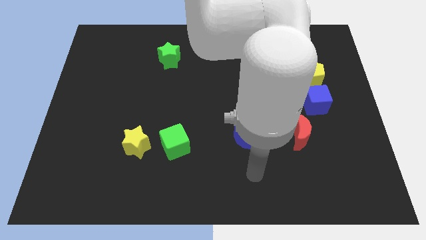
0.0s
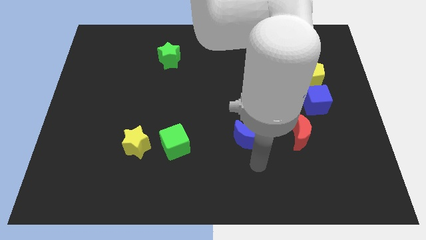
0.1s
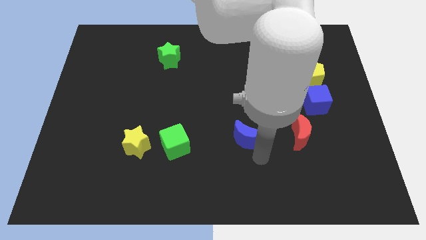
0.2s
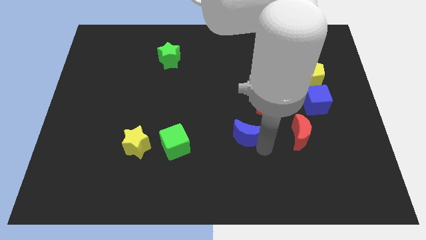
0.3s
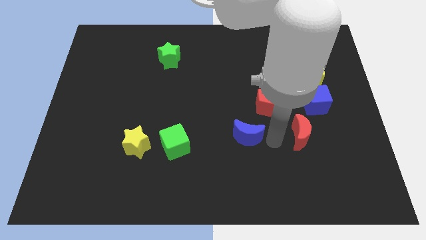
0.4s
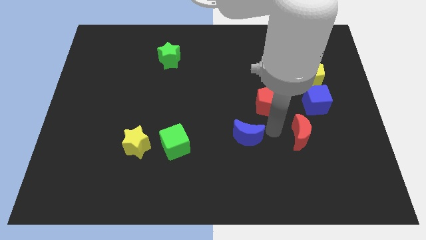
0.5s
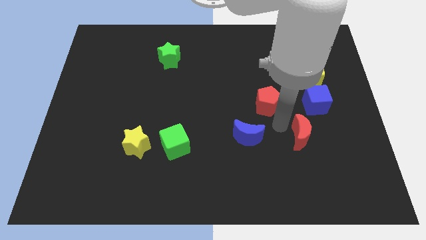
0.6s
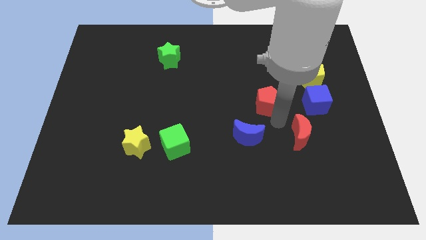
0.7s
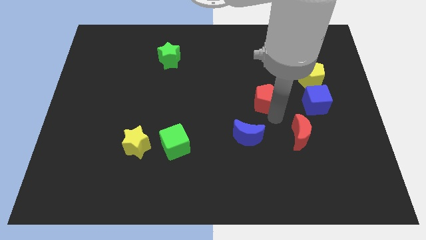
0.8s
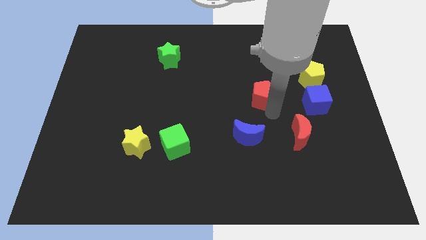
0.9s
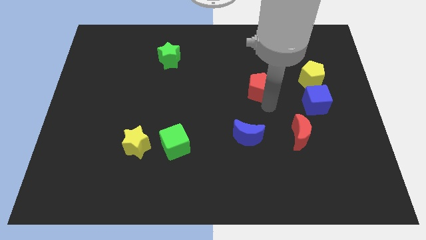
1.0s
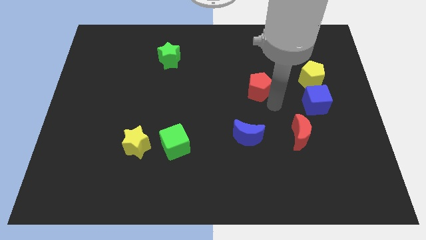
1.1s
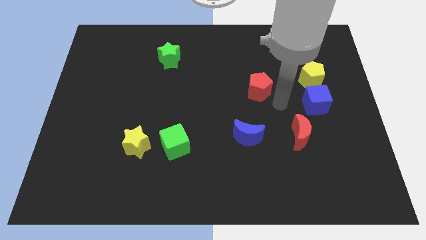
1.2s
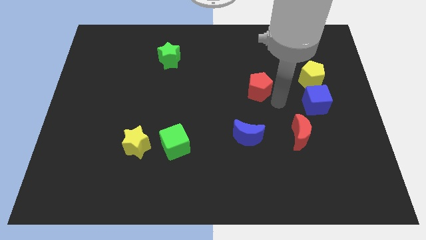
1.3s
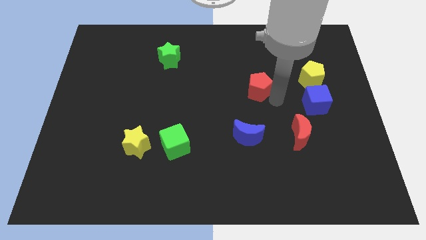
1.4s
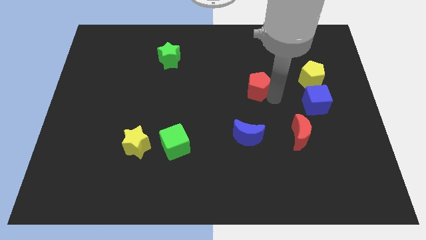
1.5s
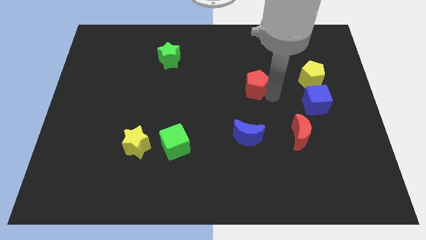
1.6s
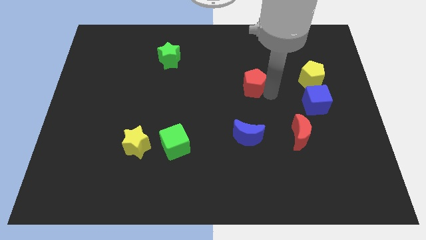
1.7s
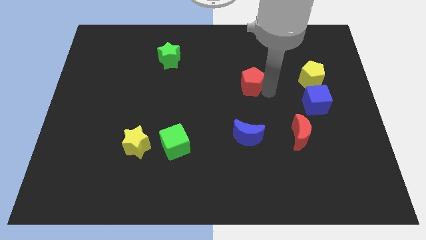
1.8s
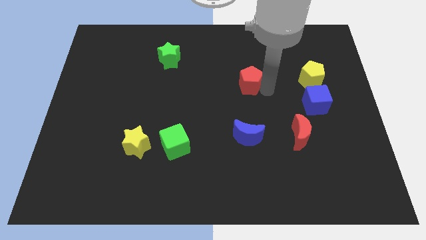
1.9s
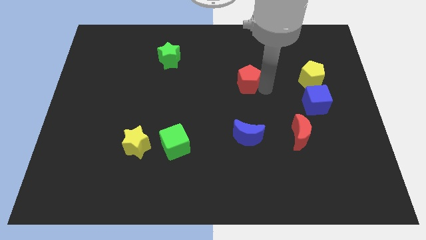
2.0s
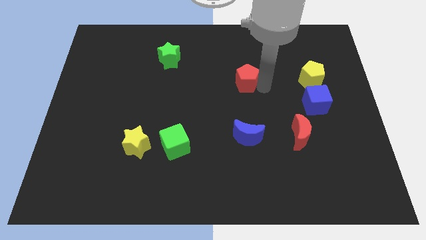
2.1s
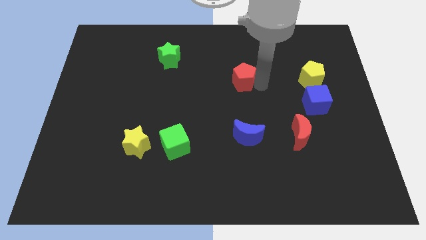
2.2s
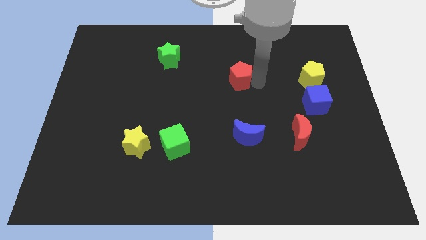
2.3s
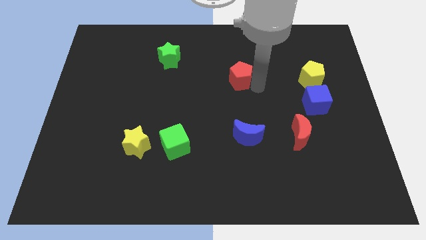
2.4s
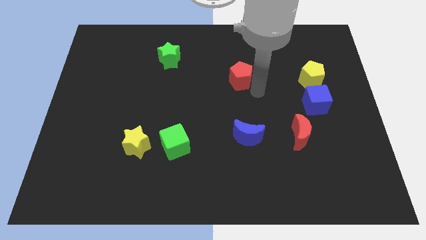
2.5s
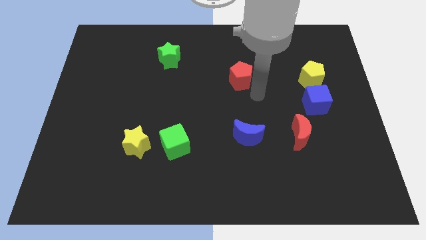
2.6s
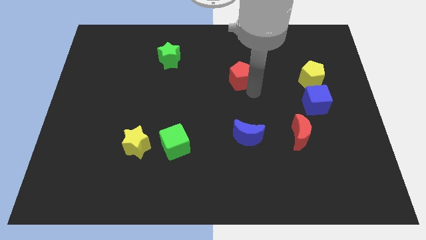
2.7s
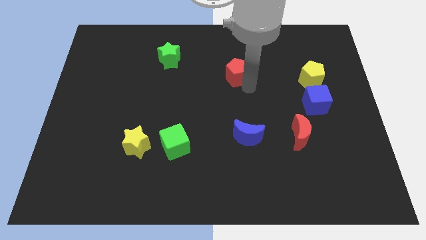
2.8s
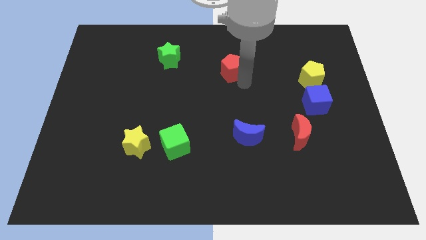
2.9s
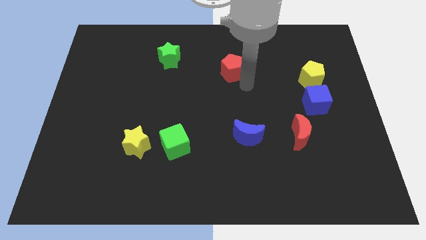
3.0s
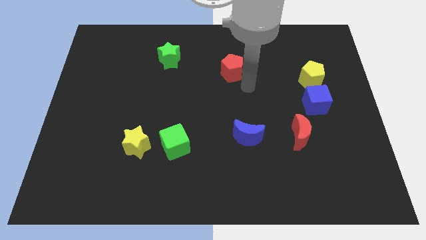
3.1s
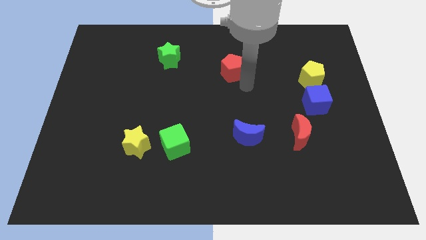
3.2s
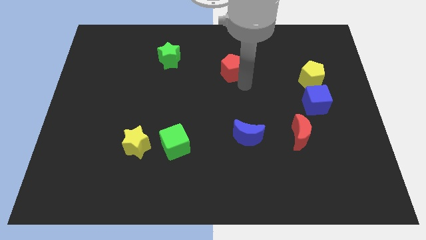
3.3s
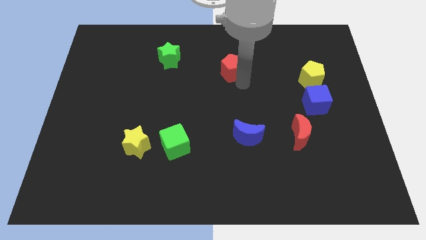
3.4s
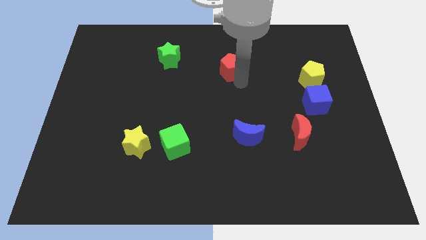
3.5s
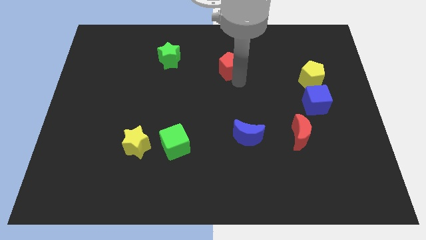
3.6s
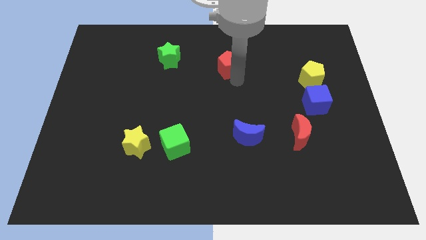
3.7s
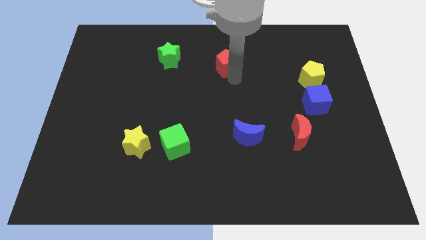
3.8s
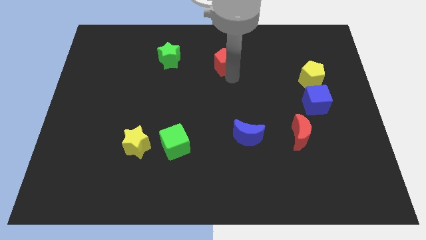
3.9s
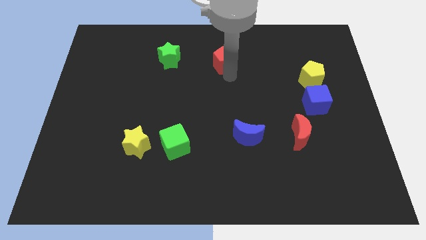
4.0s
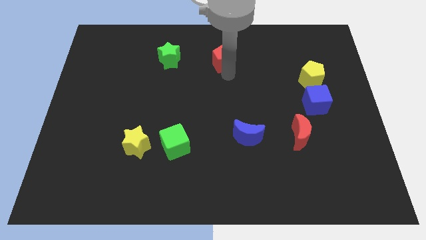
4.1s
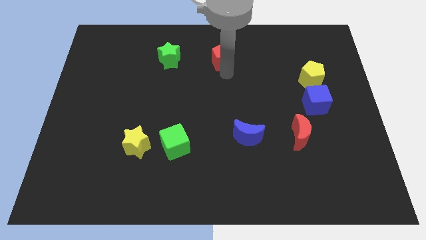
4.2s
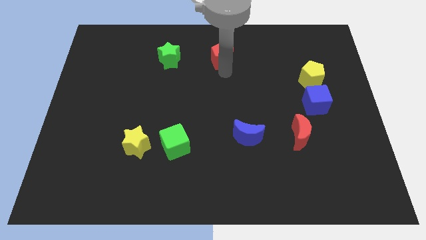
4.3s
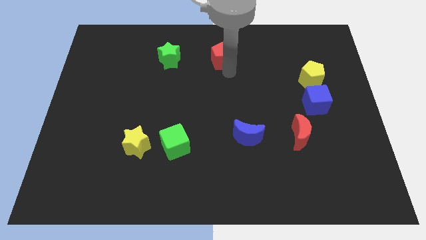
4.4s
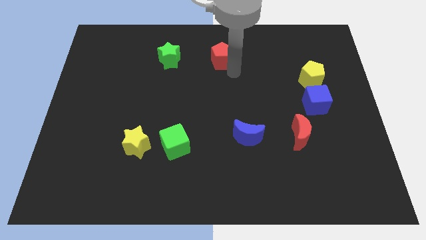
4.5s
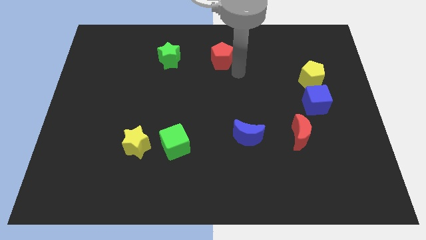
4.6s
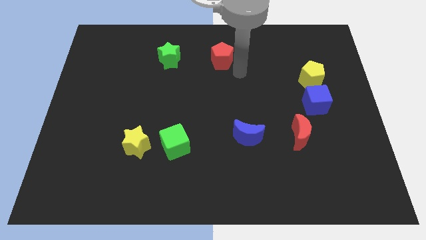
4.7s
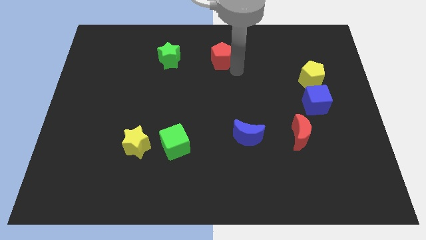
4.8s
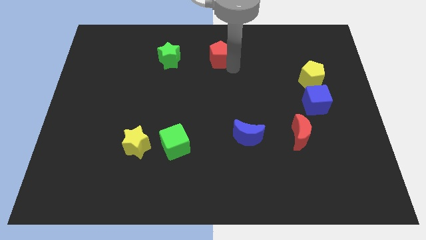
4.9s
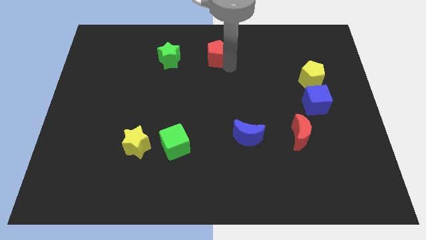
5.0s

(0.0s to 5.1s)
push the red pentagon to the top side

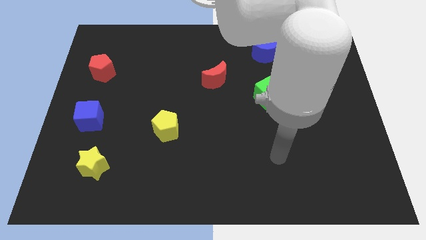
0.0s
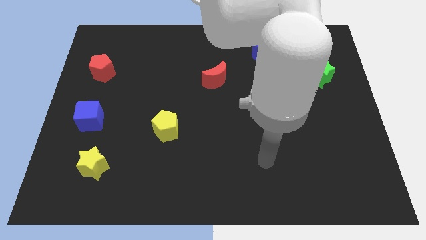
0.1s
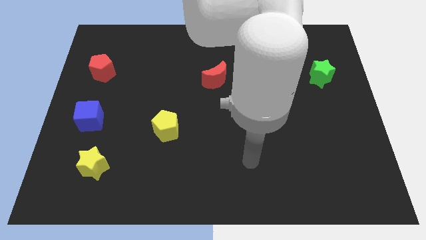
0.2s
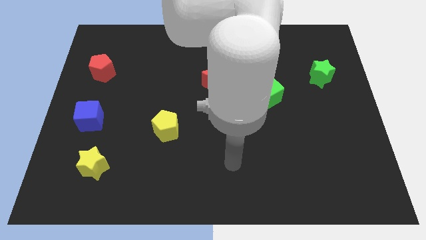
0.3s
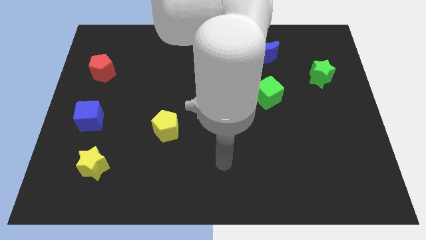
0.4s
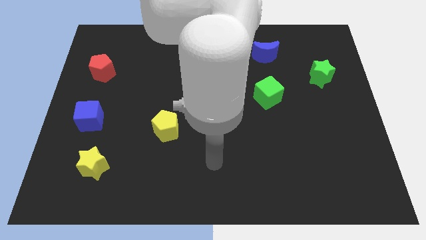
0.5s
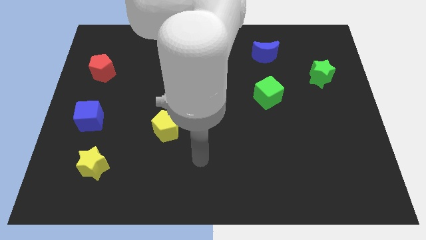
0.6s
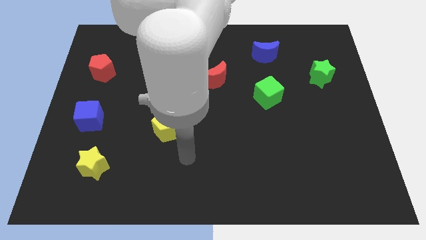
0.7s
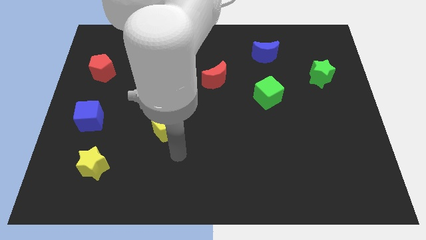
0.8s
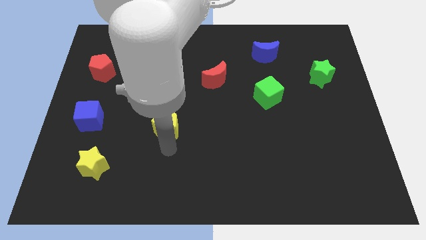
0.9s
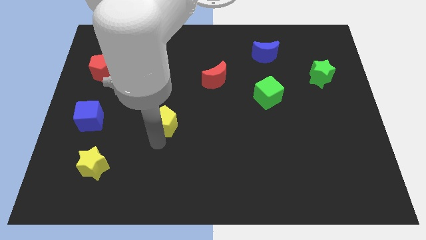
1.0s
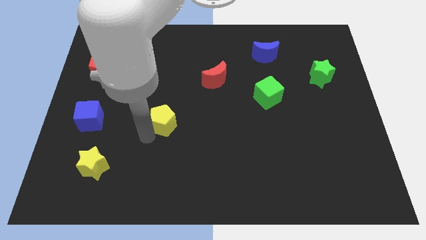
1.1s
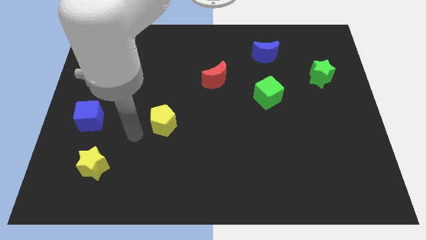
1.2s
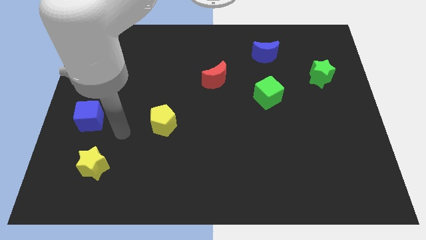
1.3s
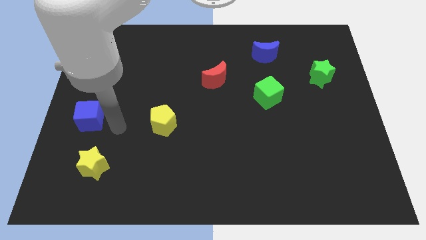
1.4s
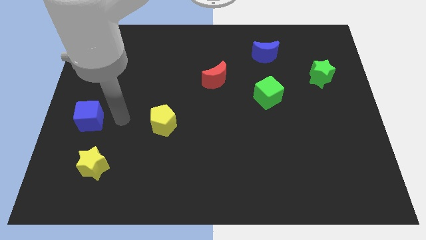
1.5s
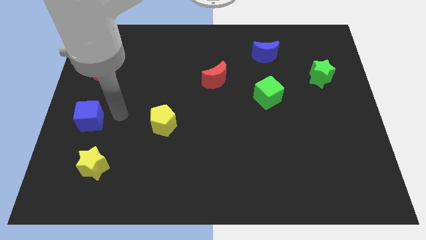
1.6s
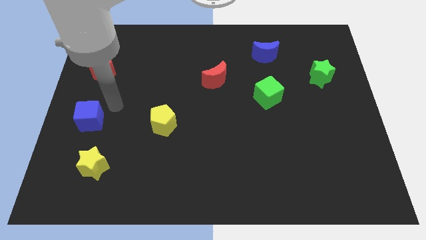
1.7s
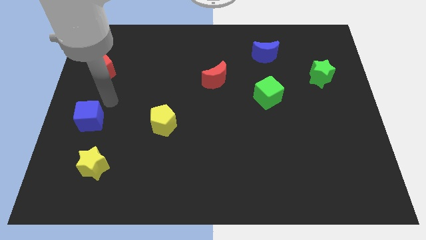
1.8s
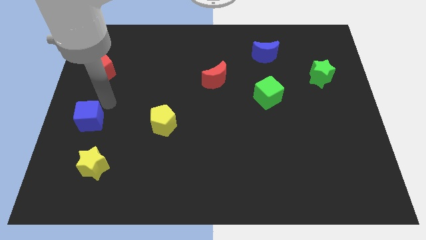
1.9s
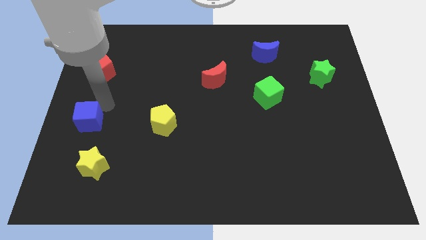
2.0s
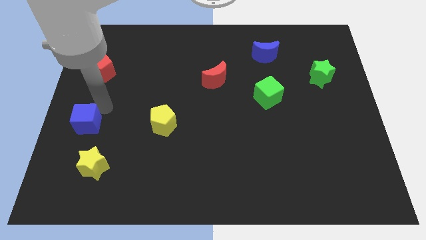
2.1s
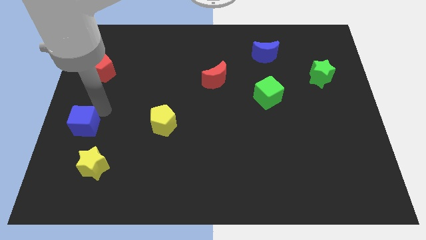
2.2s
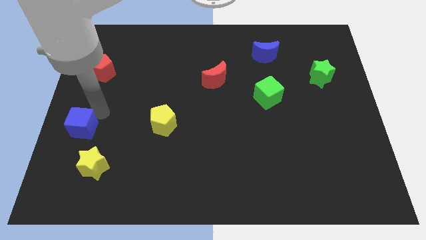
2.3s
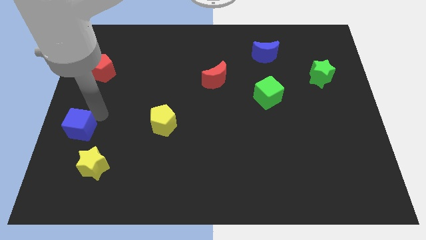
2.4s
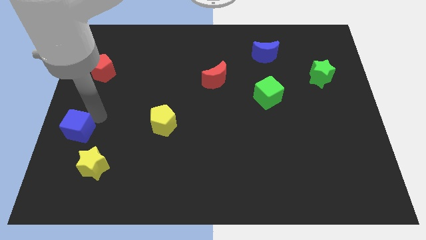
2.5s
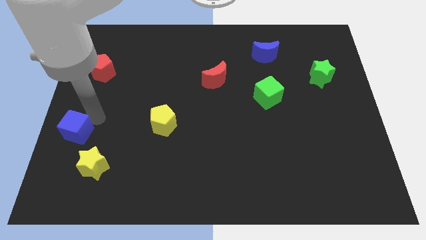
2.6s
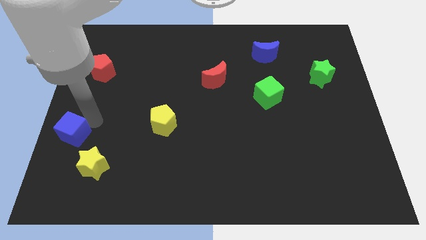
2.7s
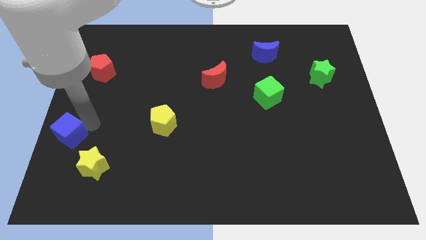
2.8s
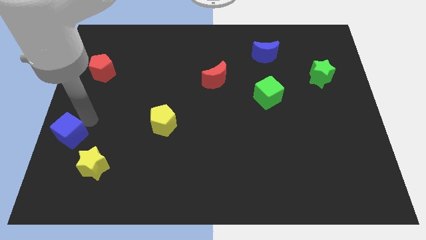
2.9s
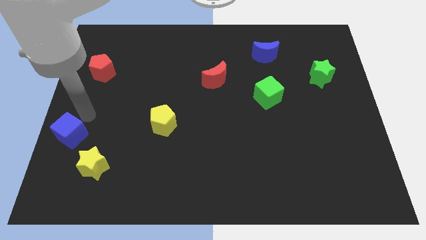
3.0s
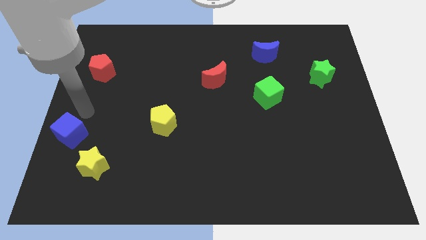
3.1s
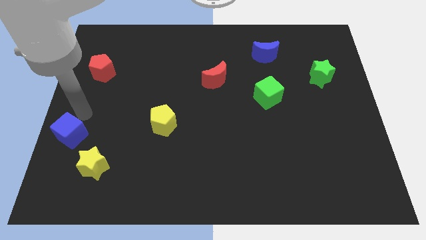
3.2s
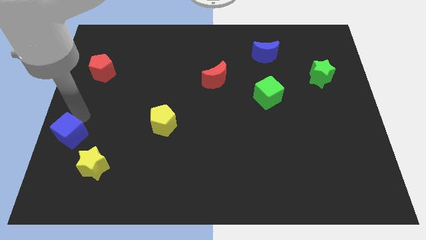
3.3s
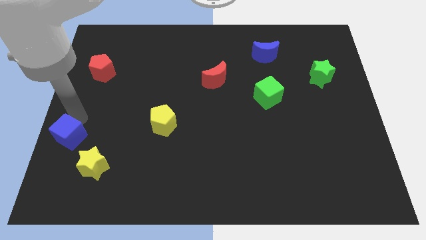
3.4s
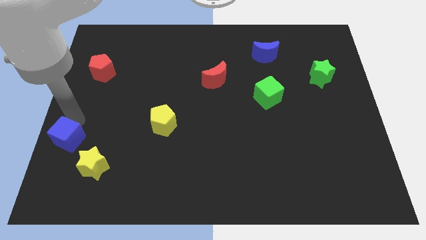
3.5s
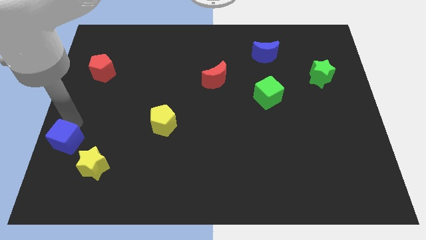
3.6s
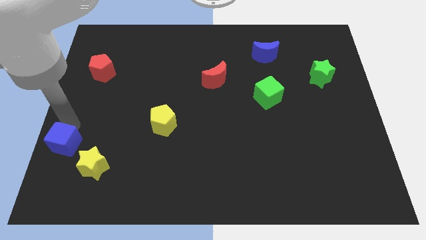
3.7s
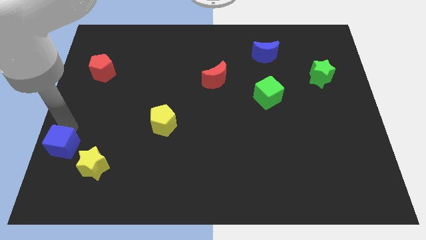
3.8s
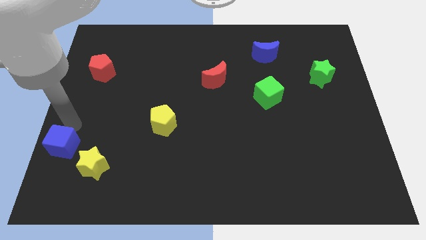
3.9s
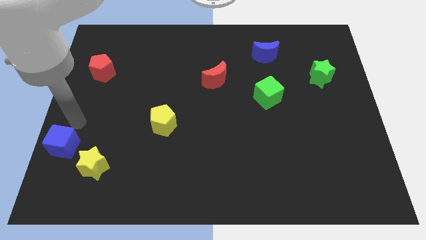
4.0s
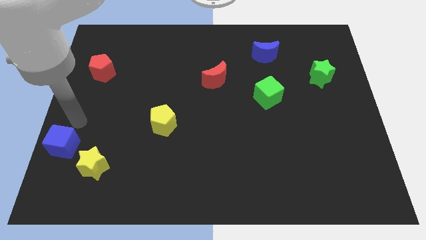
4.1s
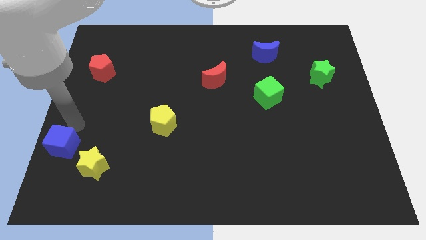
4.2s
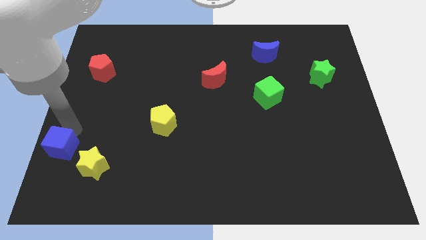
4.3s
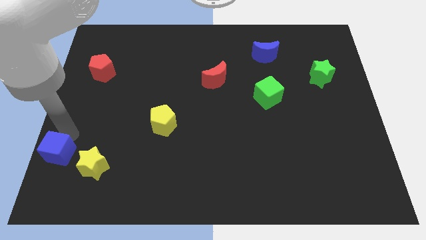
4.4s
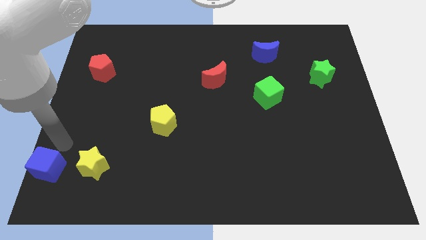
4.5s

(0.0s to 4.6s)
push the blue cube to the bottom left corner
